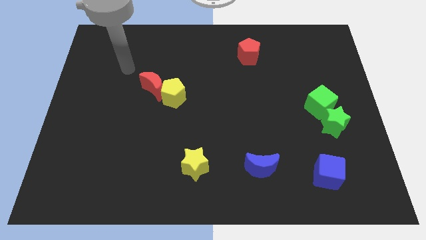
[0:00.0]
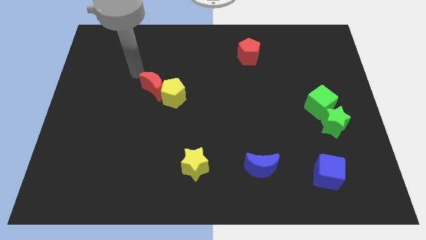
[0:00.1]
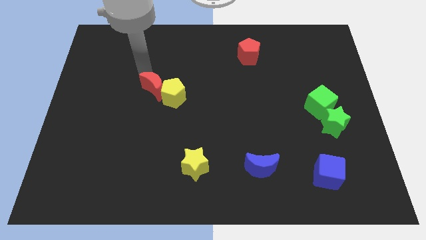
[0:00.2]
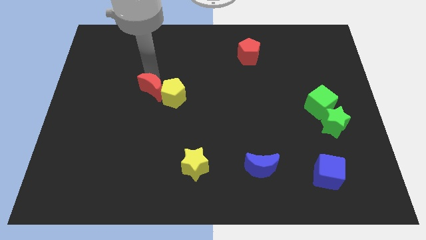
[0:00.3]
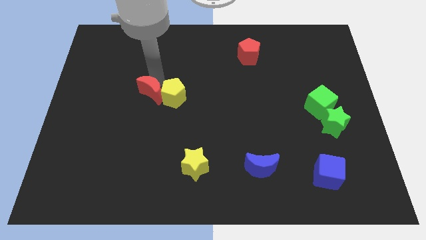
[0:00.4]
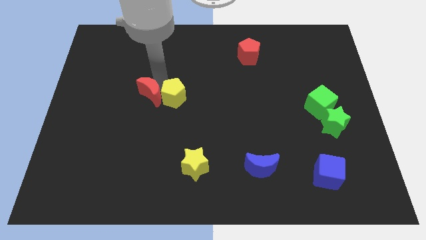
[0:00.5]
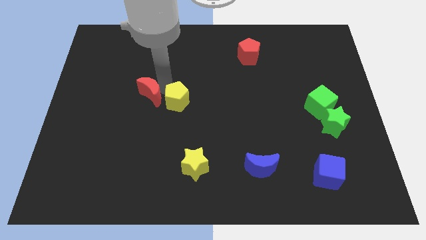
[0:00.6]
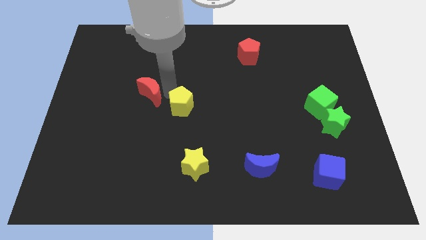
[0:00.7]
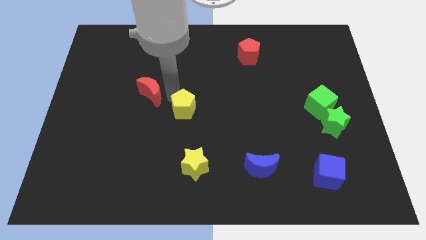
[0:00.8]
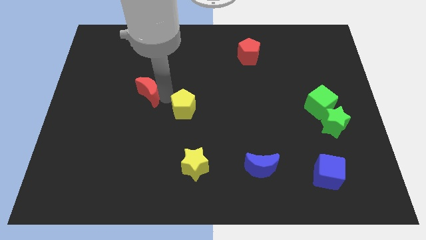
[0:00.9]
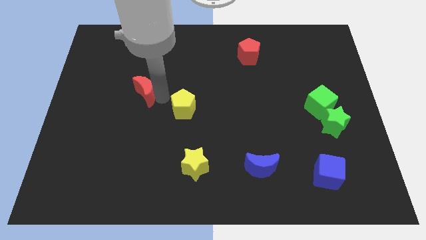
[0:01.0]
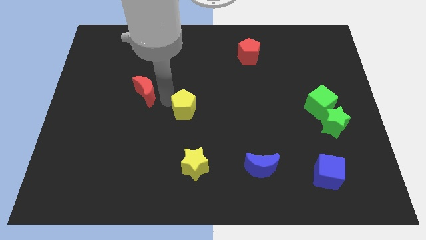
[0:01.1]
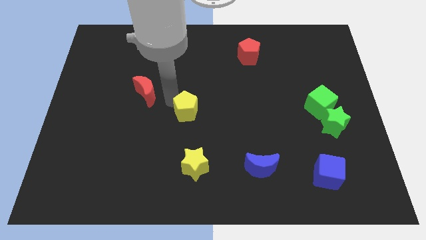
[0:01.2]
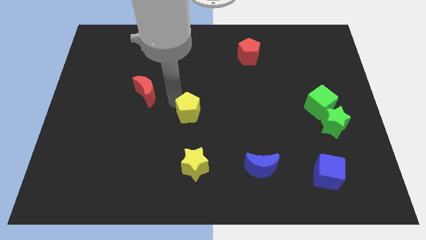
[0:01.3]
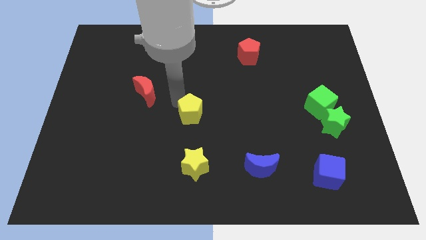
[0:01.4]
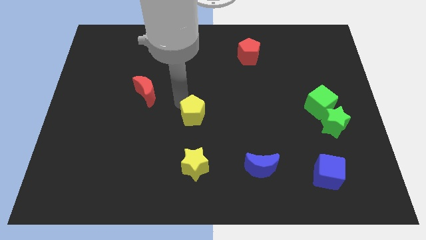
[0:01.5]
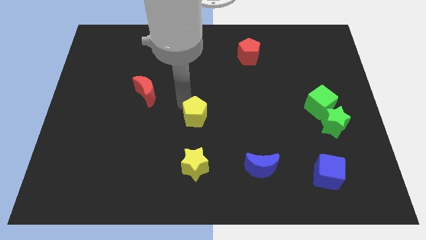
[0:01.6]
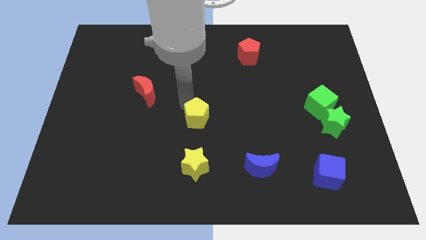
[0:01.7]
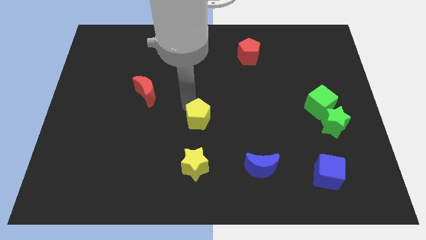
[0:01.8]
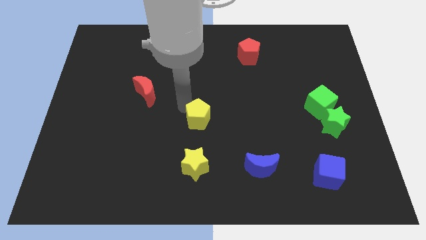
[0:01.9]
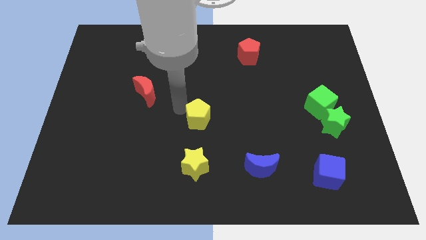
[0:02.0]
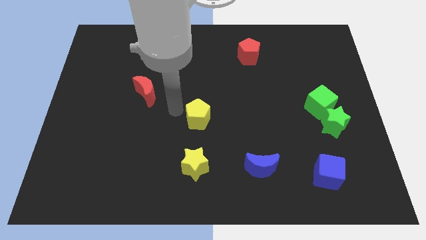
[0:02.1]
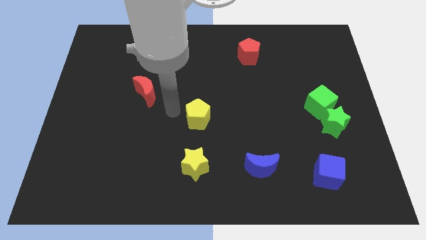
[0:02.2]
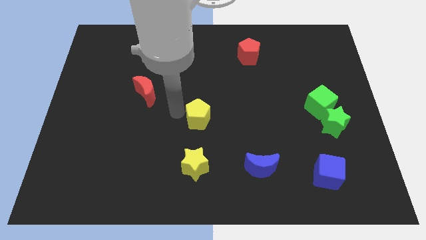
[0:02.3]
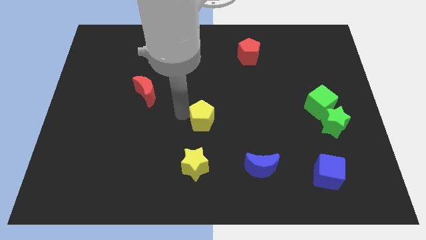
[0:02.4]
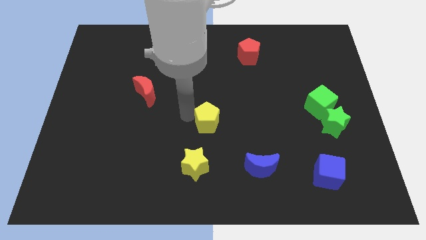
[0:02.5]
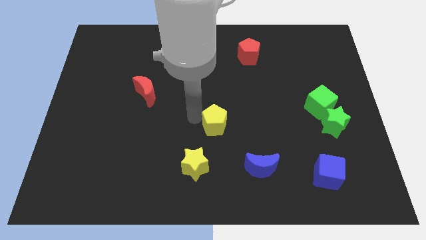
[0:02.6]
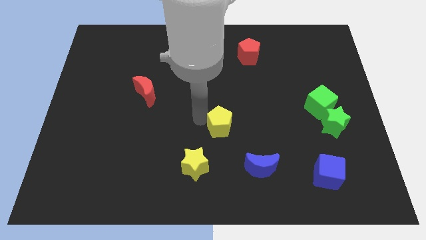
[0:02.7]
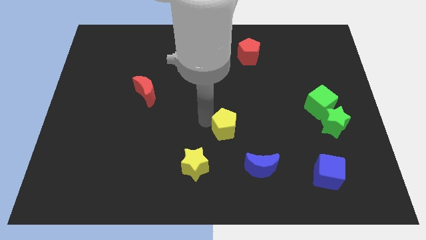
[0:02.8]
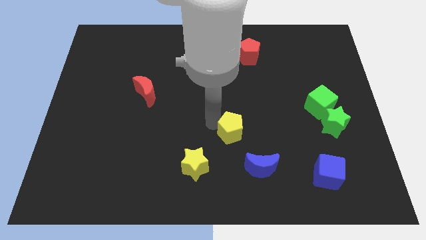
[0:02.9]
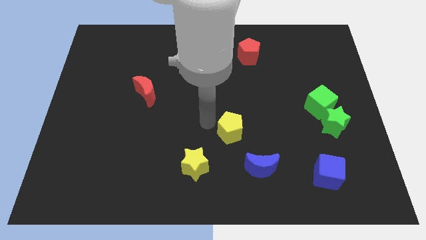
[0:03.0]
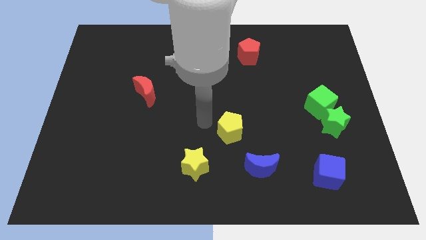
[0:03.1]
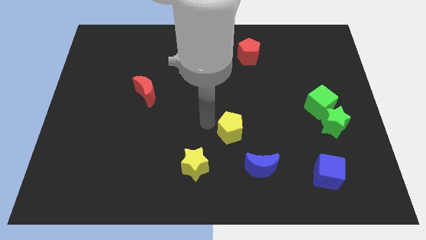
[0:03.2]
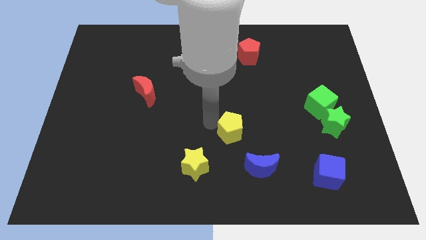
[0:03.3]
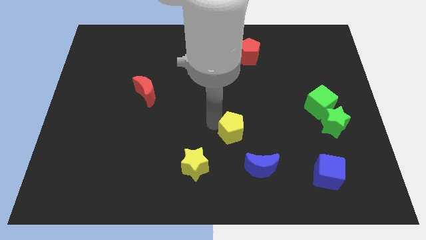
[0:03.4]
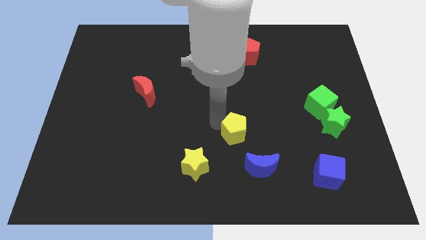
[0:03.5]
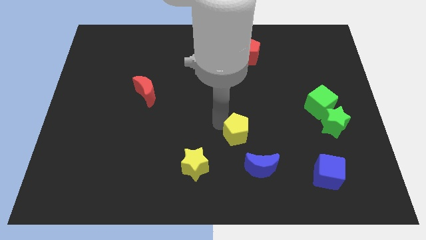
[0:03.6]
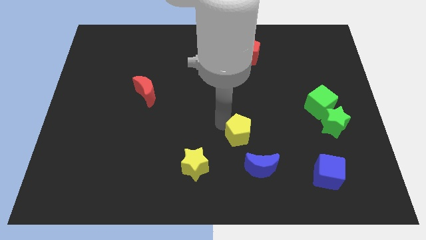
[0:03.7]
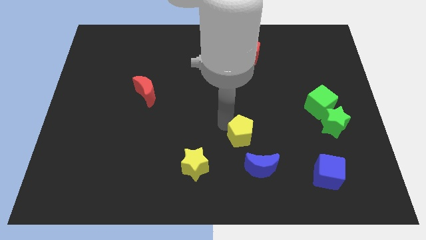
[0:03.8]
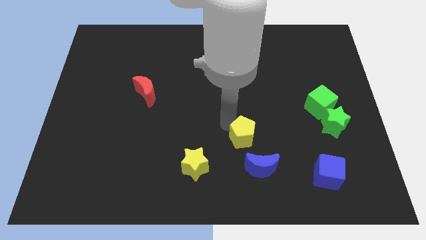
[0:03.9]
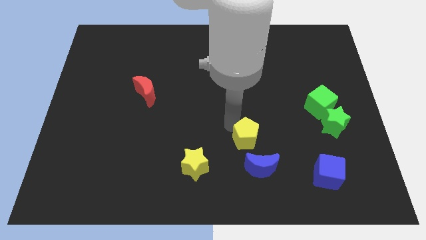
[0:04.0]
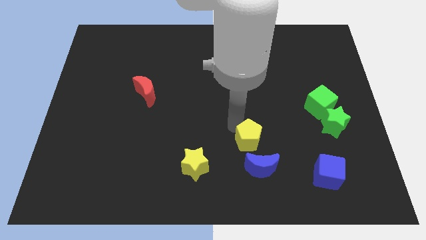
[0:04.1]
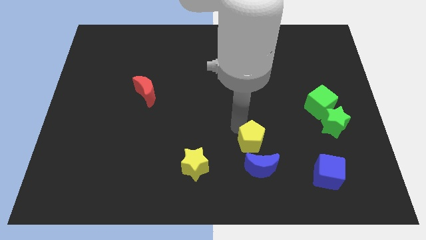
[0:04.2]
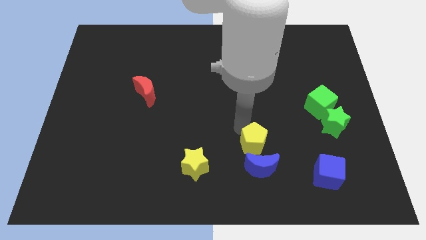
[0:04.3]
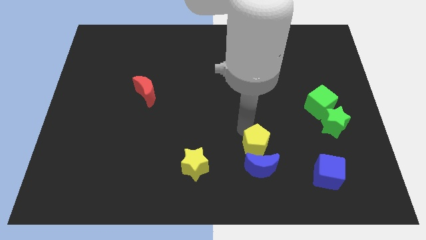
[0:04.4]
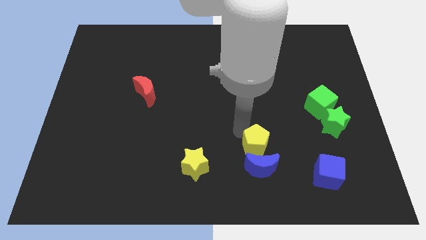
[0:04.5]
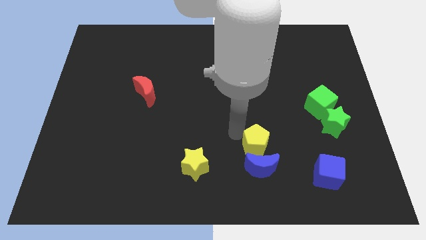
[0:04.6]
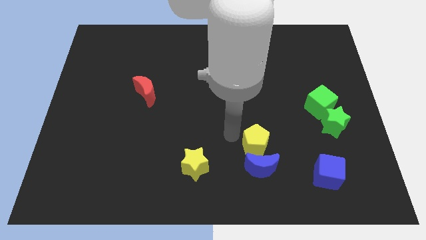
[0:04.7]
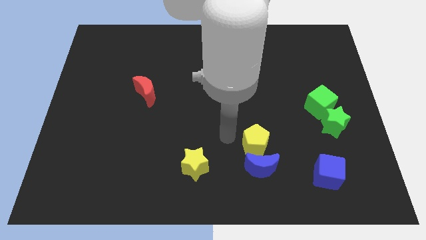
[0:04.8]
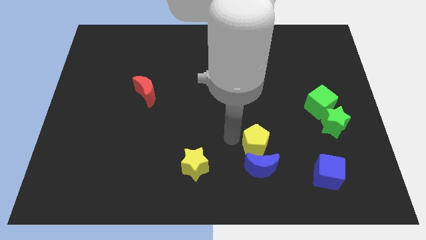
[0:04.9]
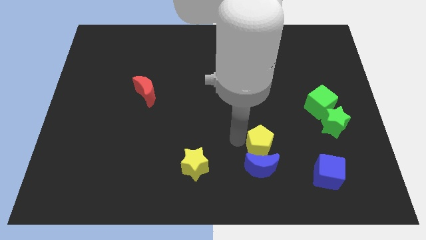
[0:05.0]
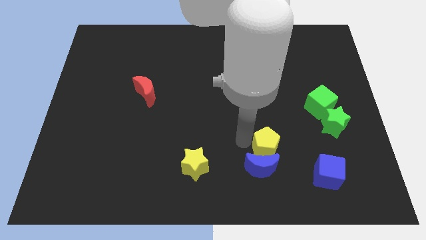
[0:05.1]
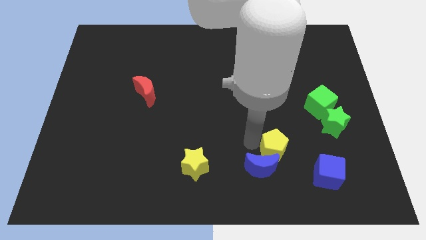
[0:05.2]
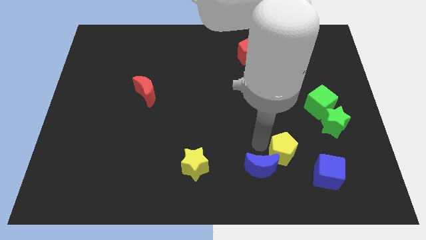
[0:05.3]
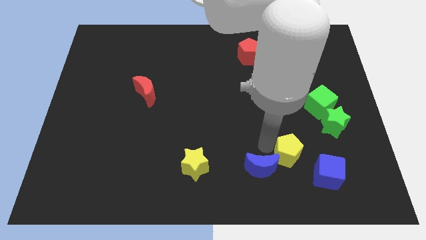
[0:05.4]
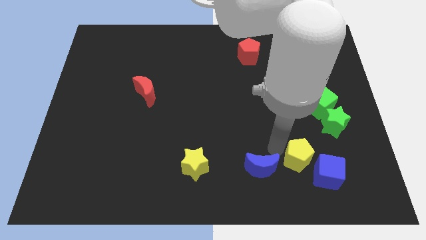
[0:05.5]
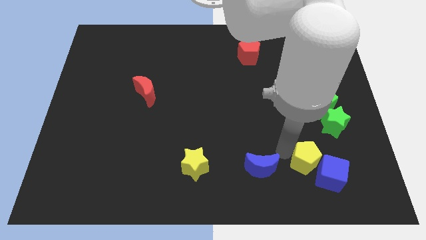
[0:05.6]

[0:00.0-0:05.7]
put the yellow pentagon to the blue cube

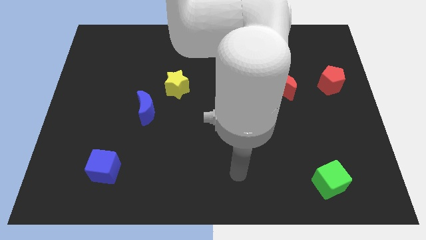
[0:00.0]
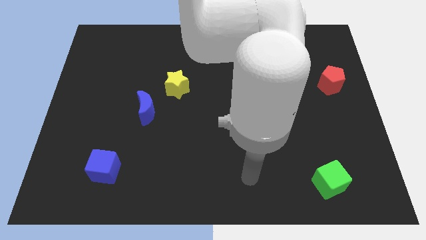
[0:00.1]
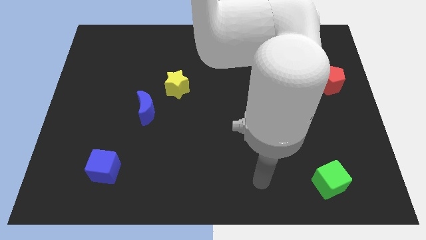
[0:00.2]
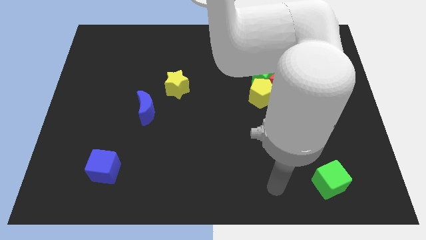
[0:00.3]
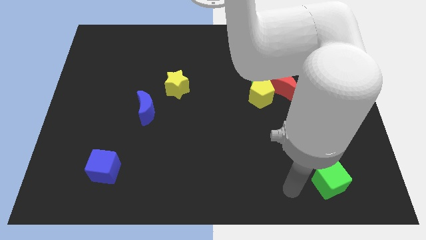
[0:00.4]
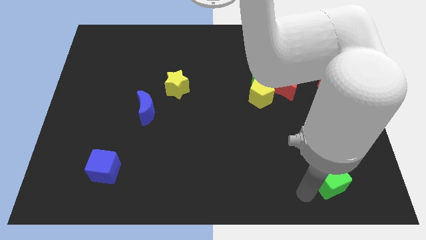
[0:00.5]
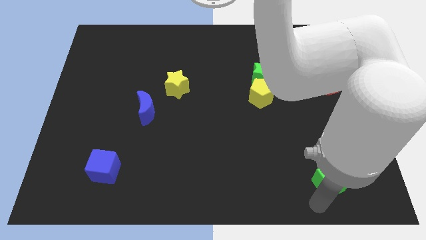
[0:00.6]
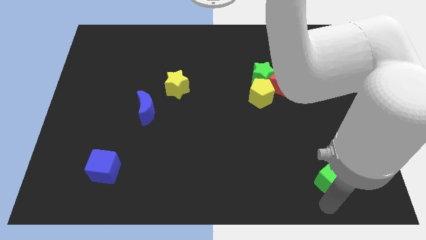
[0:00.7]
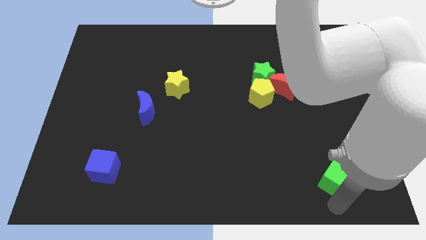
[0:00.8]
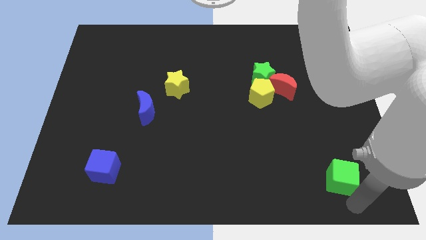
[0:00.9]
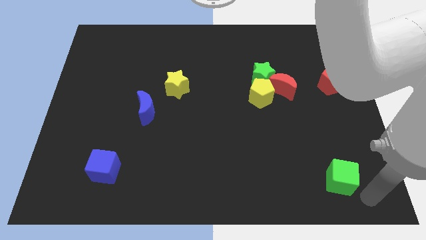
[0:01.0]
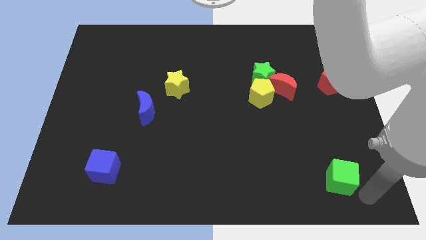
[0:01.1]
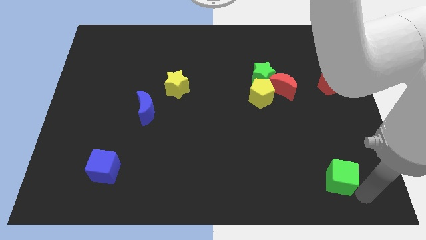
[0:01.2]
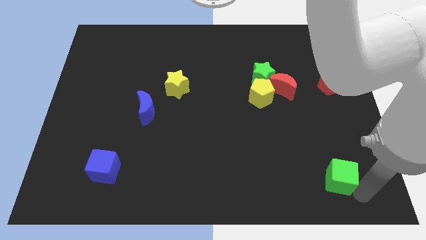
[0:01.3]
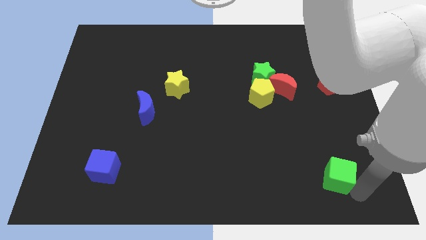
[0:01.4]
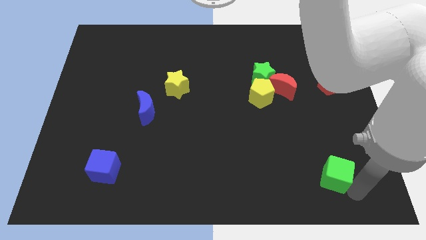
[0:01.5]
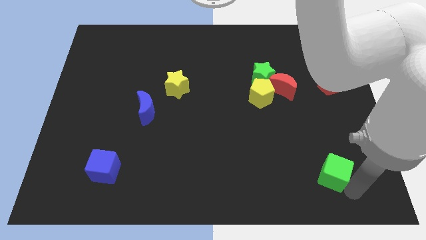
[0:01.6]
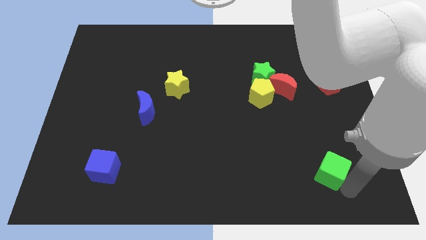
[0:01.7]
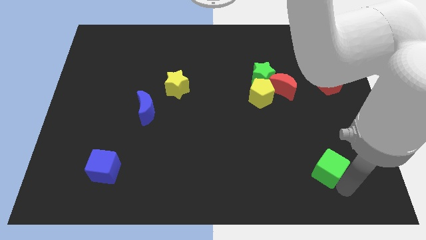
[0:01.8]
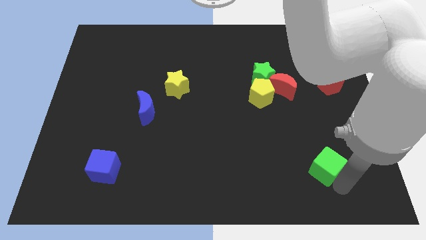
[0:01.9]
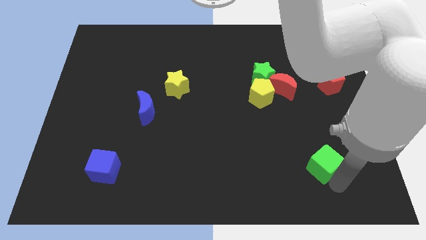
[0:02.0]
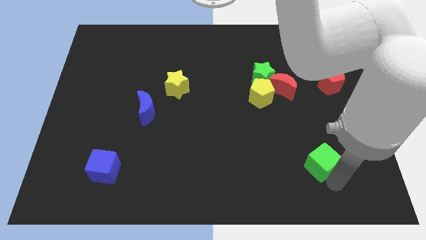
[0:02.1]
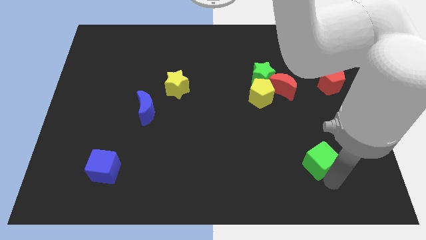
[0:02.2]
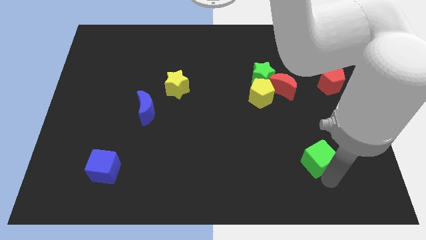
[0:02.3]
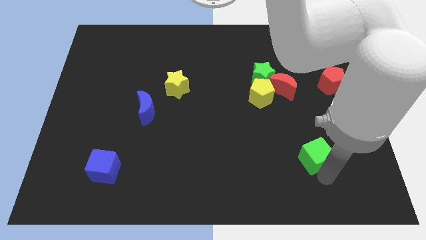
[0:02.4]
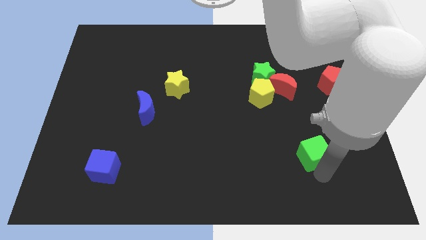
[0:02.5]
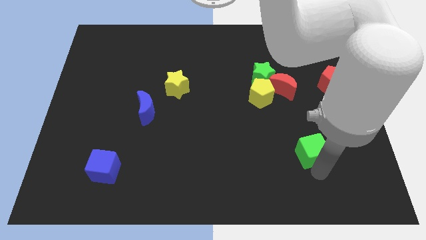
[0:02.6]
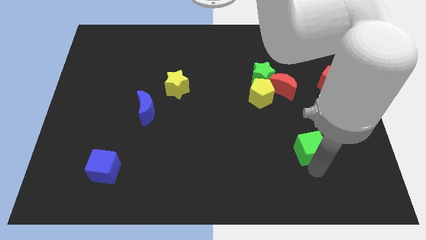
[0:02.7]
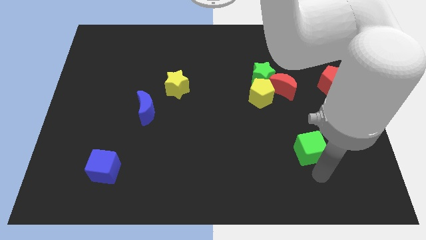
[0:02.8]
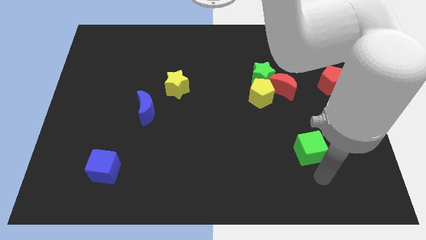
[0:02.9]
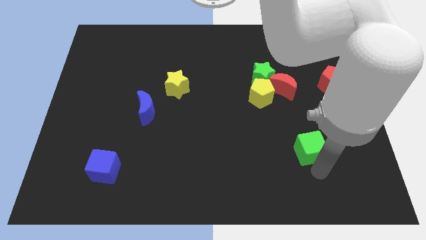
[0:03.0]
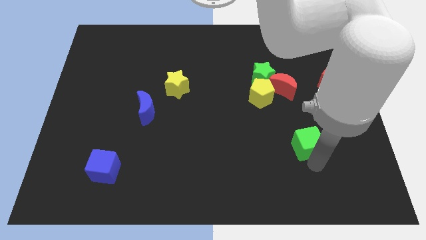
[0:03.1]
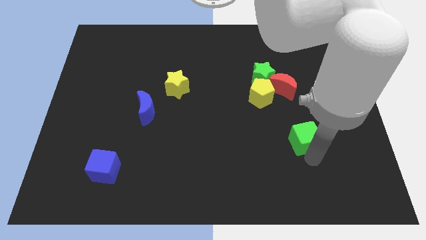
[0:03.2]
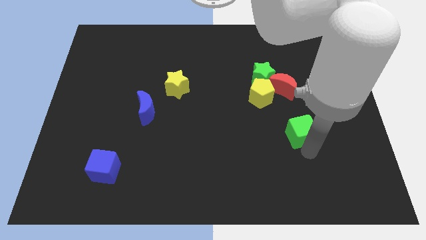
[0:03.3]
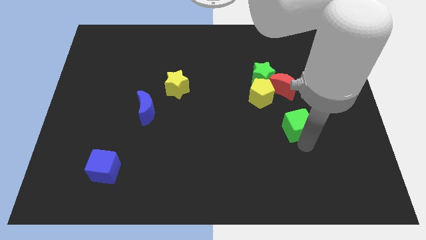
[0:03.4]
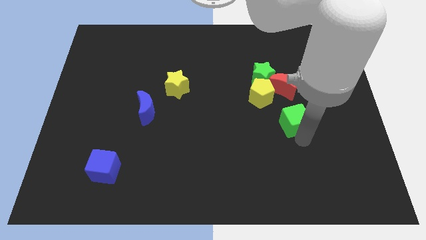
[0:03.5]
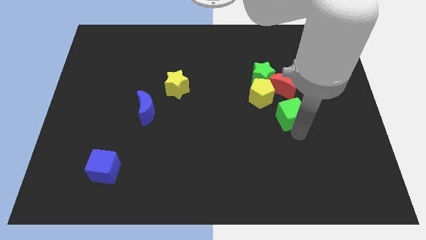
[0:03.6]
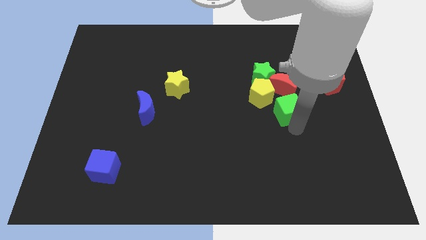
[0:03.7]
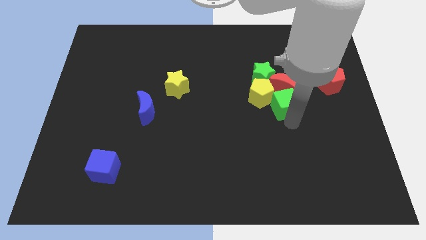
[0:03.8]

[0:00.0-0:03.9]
slide the green cube close to the red moon
